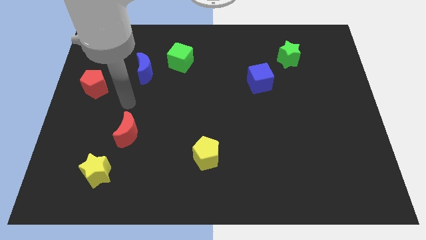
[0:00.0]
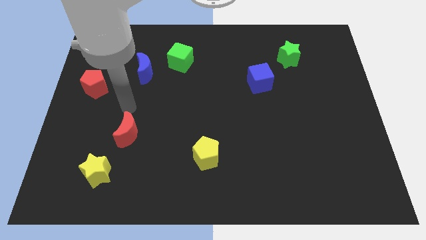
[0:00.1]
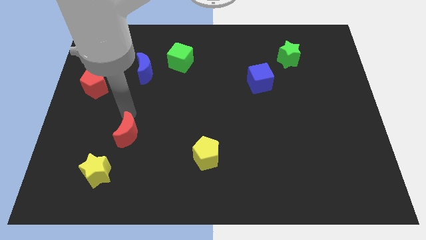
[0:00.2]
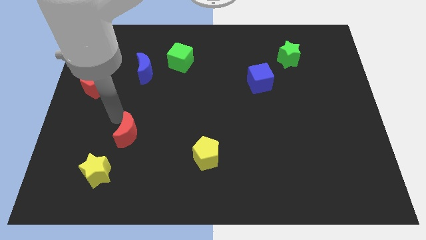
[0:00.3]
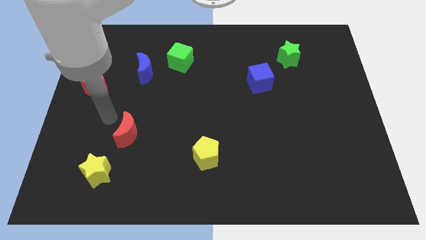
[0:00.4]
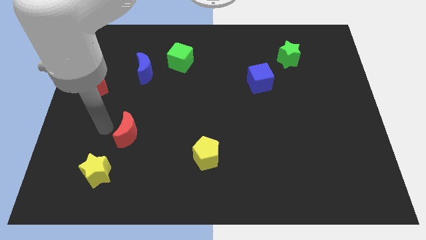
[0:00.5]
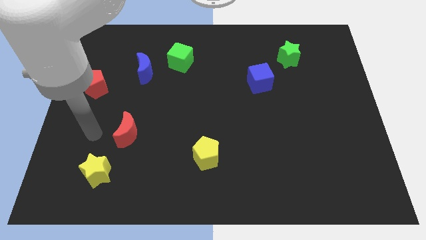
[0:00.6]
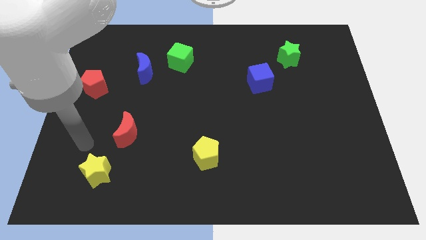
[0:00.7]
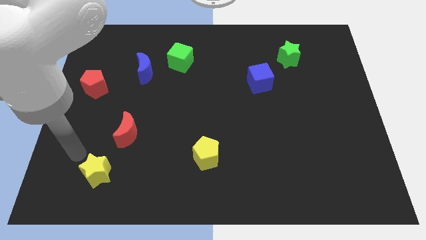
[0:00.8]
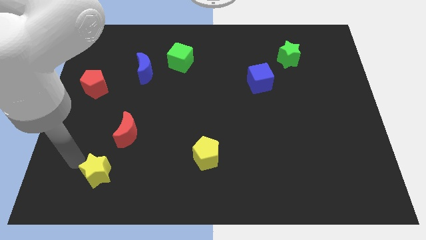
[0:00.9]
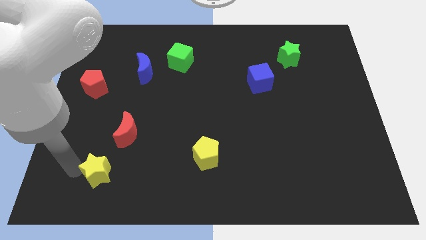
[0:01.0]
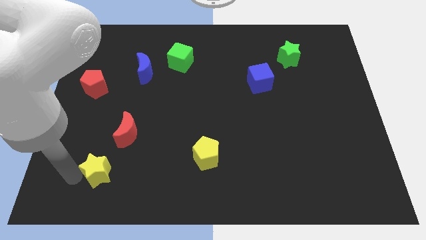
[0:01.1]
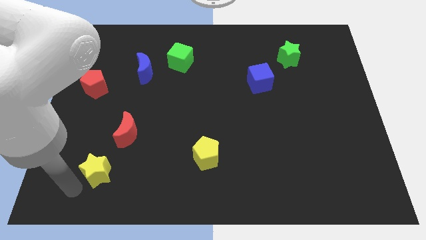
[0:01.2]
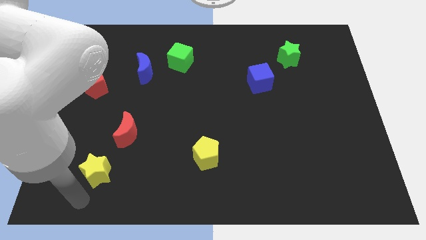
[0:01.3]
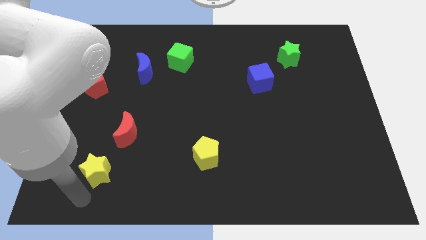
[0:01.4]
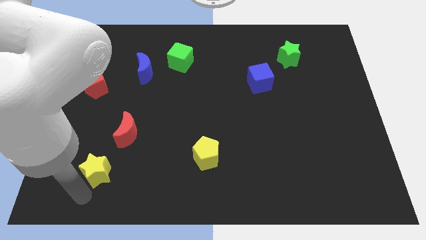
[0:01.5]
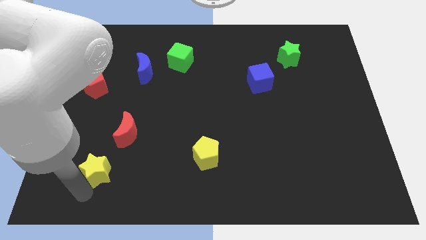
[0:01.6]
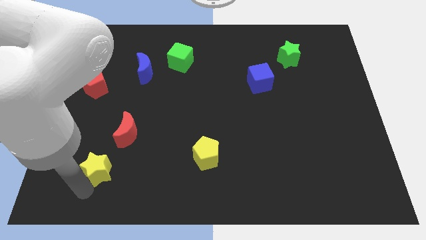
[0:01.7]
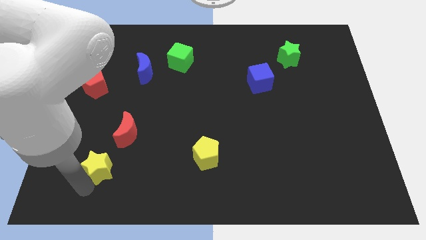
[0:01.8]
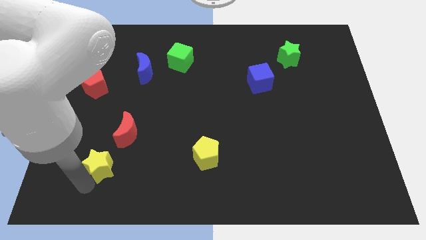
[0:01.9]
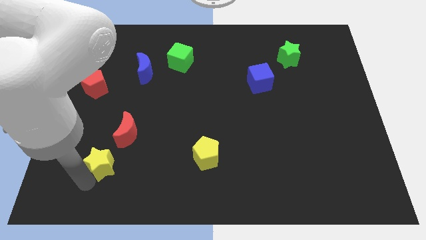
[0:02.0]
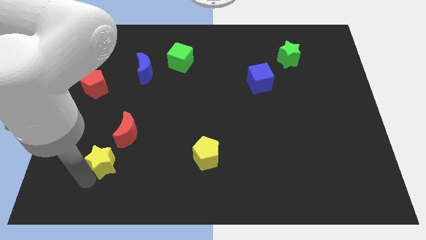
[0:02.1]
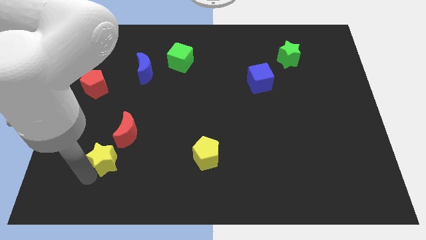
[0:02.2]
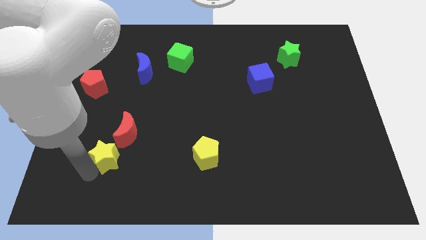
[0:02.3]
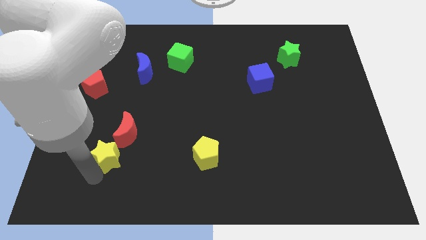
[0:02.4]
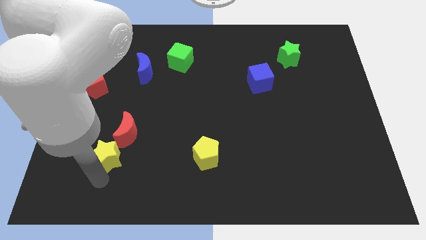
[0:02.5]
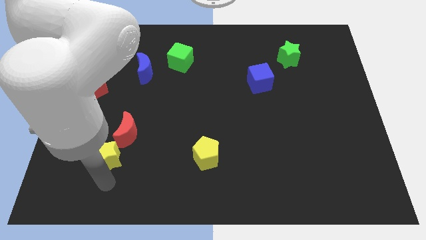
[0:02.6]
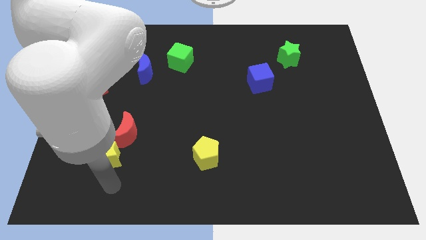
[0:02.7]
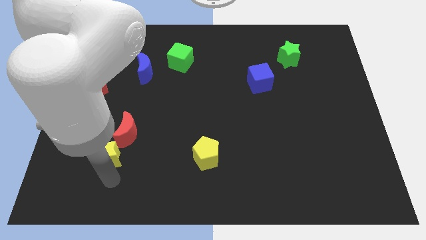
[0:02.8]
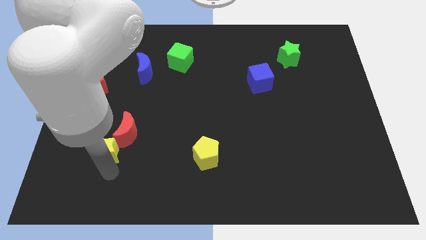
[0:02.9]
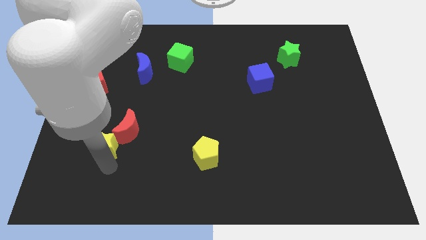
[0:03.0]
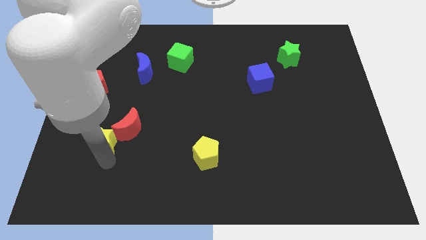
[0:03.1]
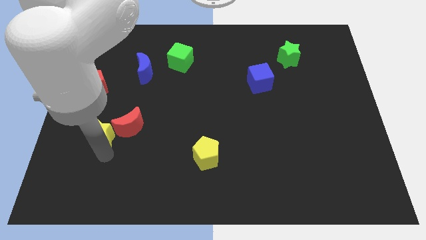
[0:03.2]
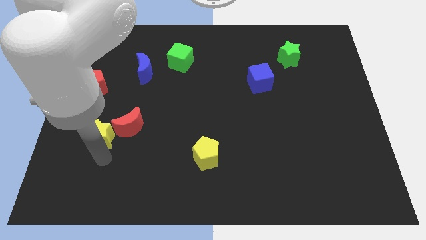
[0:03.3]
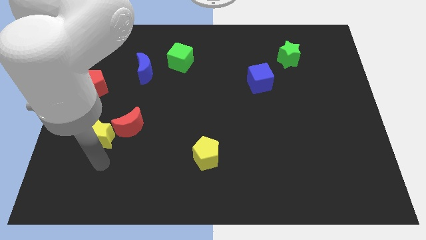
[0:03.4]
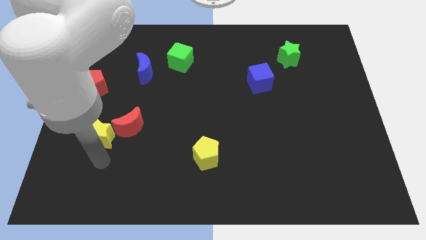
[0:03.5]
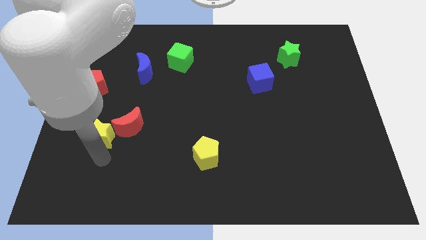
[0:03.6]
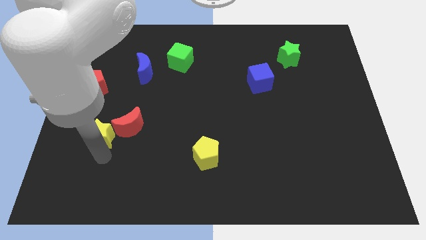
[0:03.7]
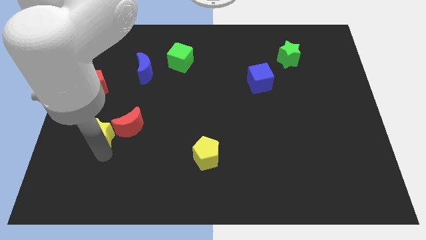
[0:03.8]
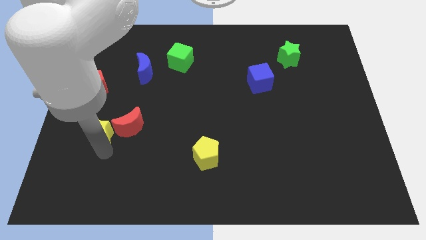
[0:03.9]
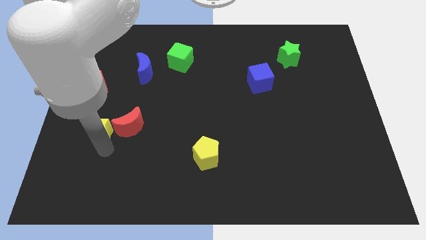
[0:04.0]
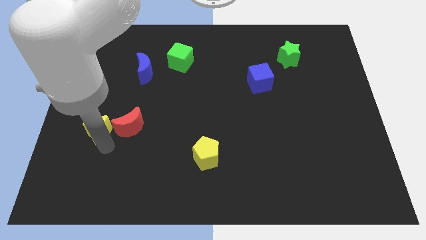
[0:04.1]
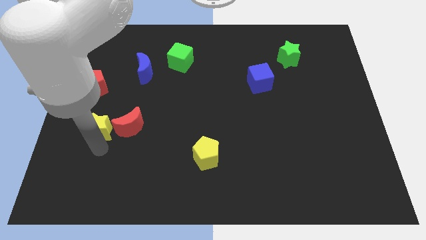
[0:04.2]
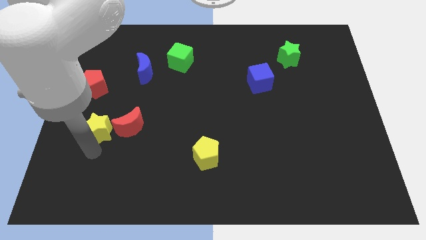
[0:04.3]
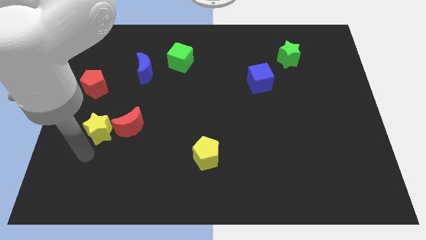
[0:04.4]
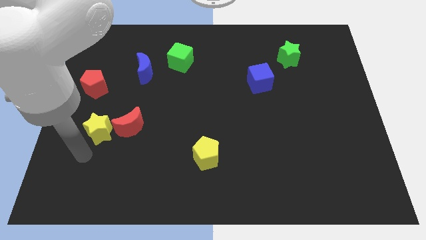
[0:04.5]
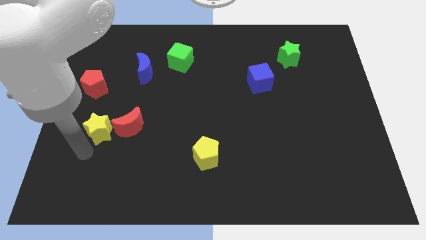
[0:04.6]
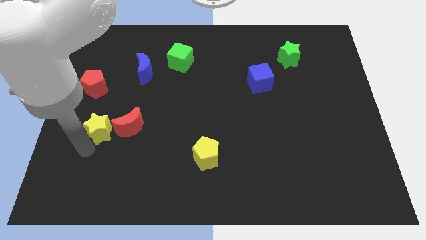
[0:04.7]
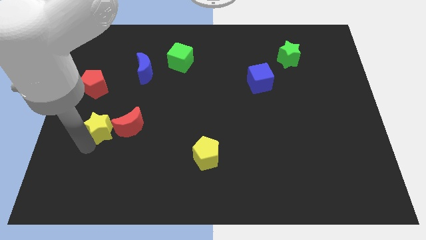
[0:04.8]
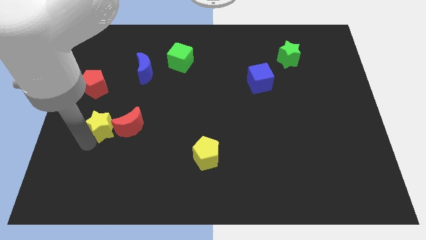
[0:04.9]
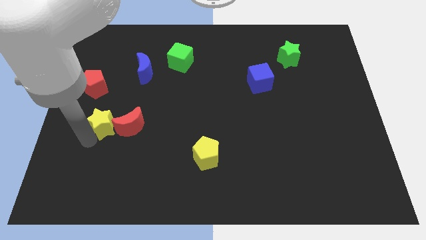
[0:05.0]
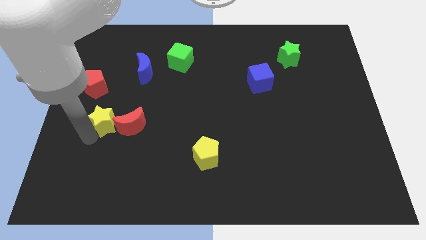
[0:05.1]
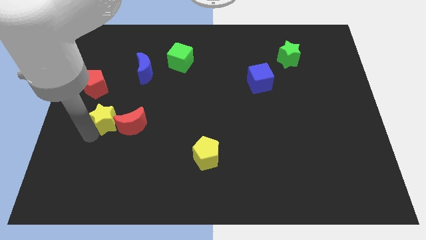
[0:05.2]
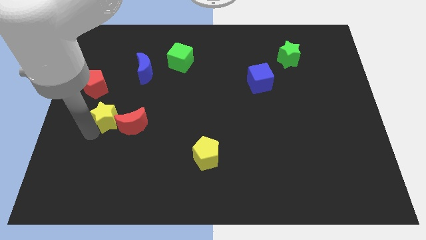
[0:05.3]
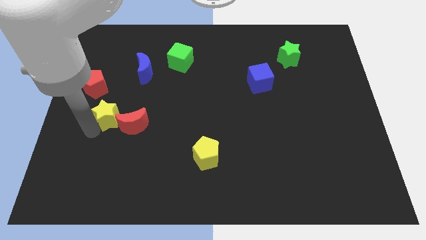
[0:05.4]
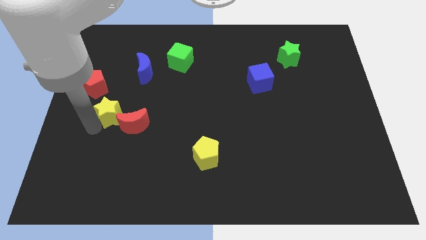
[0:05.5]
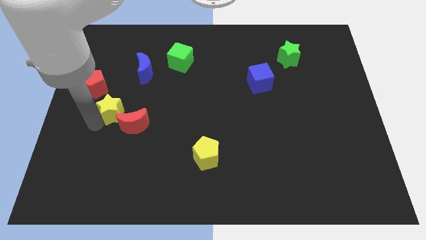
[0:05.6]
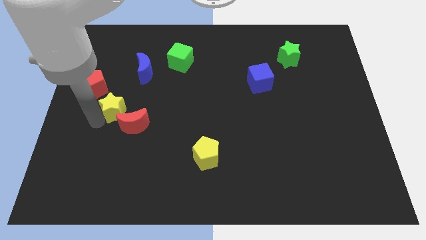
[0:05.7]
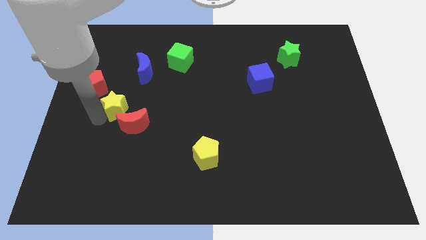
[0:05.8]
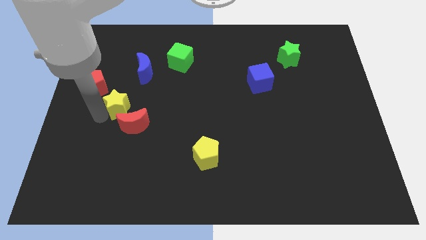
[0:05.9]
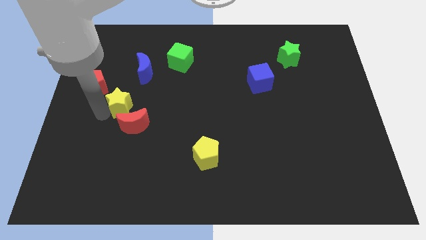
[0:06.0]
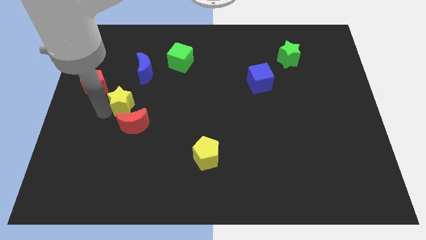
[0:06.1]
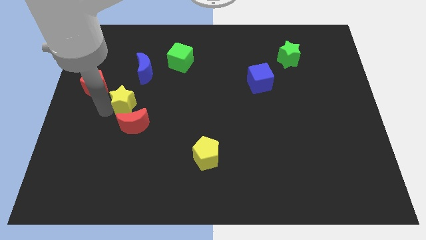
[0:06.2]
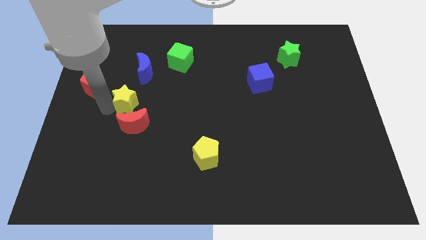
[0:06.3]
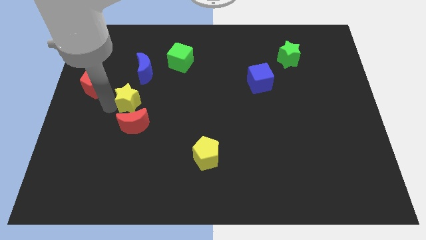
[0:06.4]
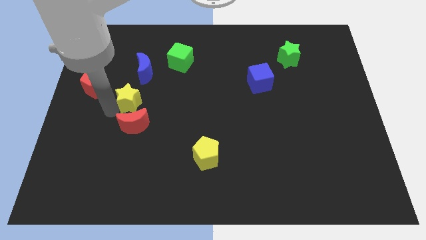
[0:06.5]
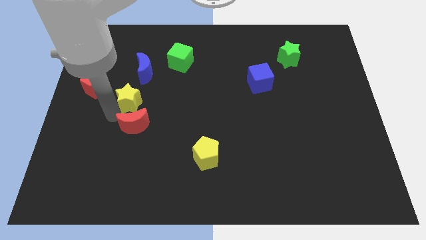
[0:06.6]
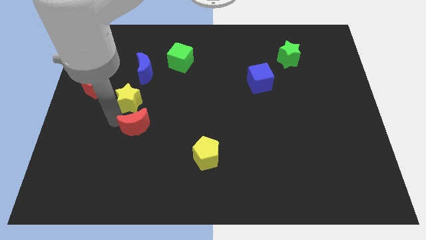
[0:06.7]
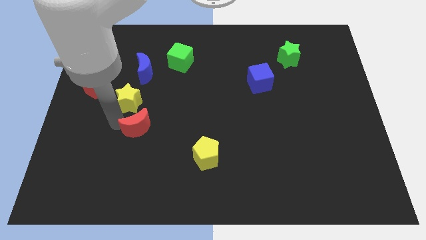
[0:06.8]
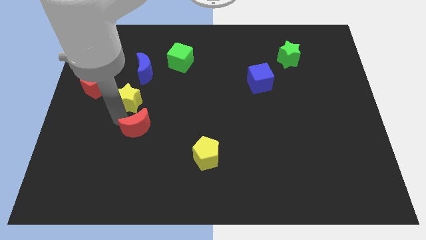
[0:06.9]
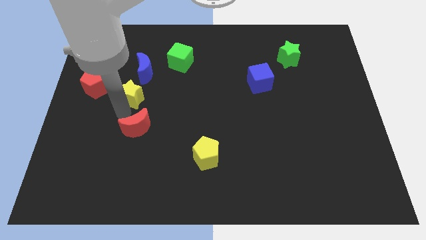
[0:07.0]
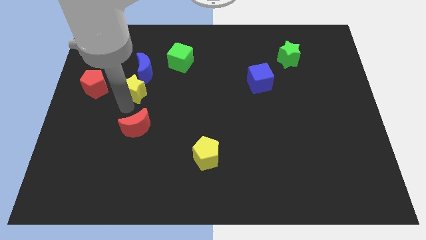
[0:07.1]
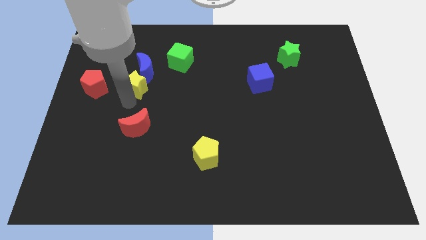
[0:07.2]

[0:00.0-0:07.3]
put the yellow star to the blue moon
